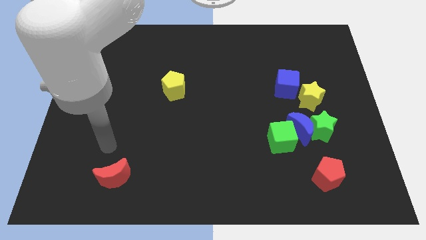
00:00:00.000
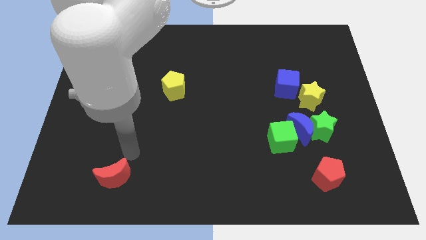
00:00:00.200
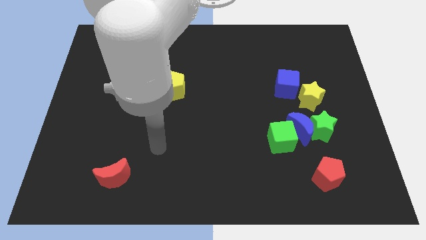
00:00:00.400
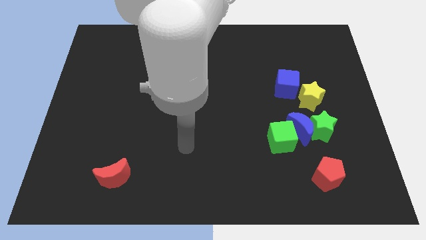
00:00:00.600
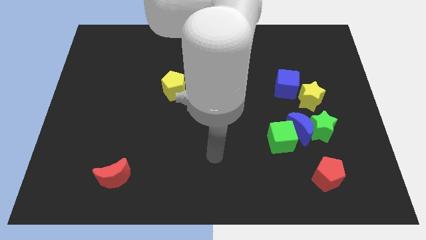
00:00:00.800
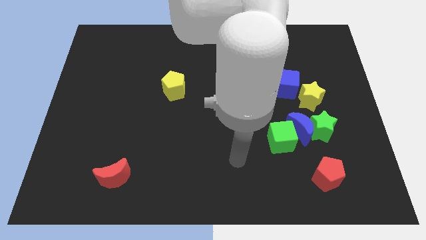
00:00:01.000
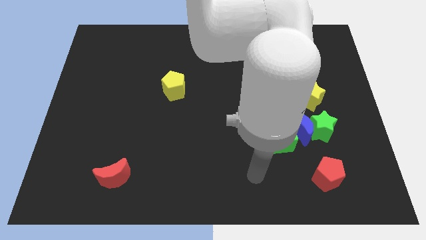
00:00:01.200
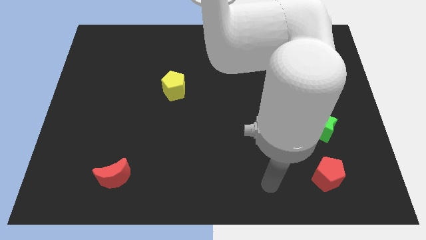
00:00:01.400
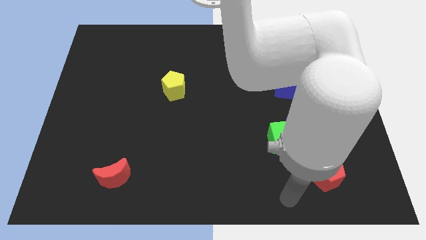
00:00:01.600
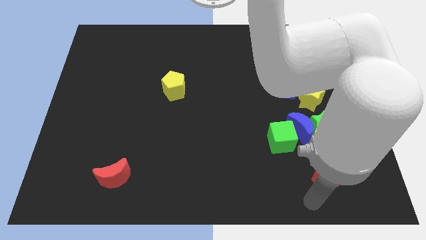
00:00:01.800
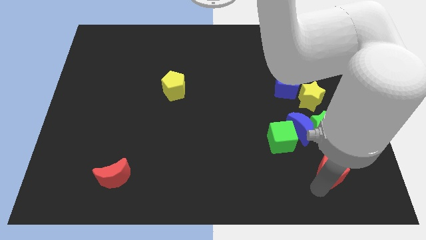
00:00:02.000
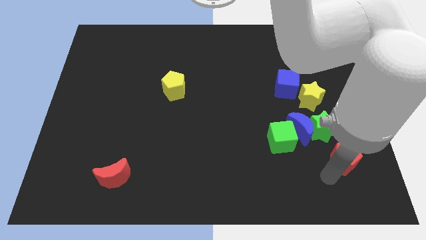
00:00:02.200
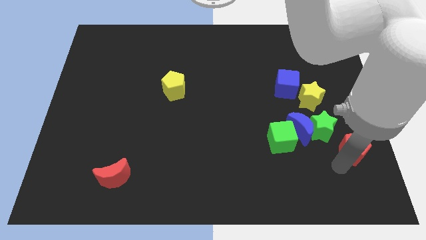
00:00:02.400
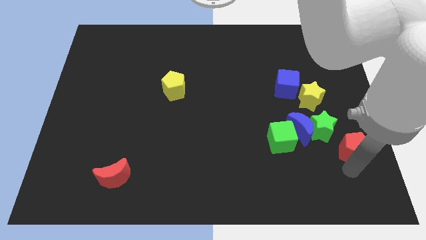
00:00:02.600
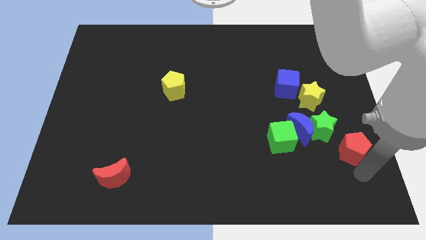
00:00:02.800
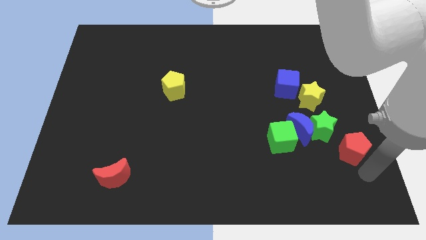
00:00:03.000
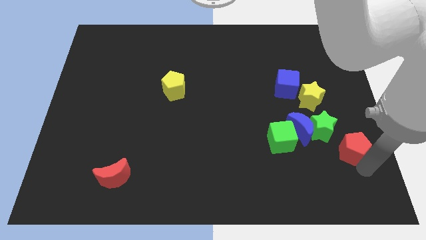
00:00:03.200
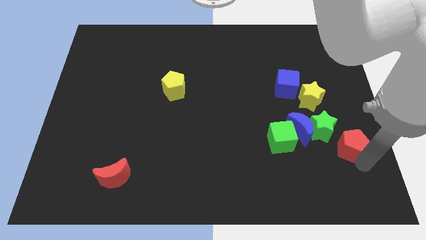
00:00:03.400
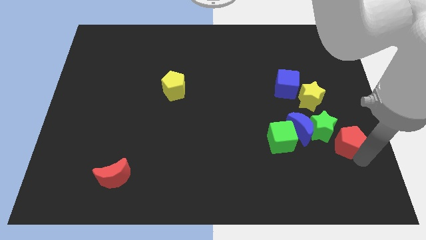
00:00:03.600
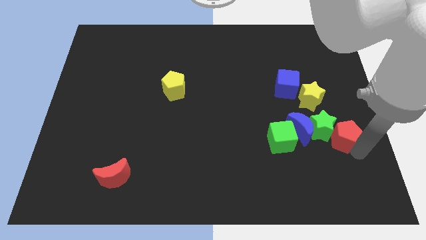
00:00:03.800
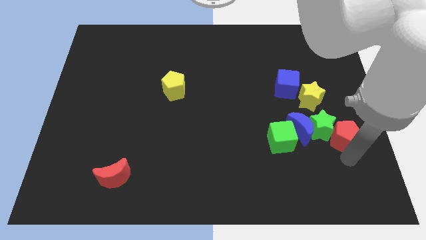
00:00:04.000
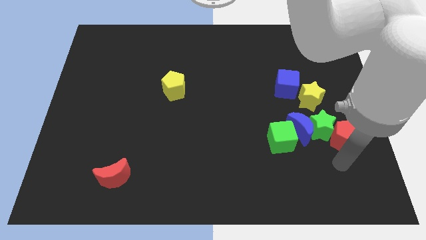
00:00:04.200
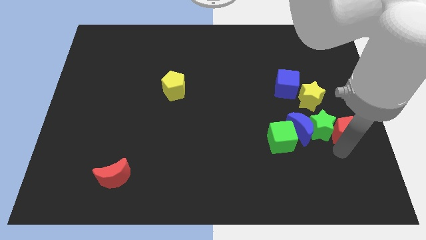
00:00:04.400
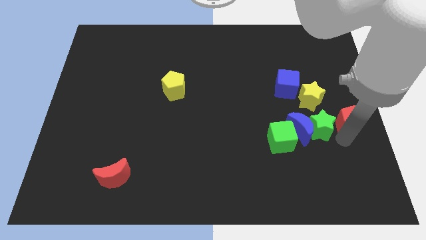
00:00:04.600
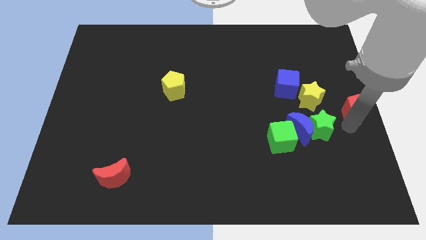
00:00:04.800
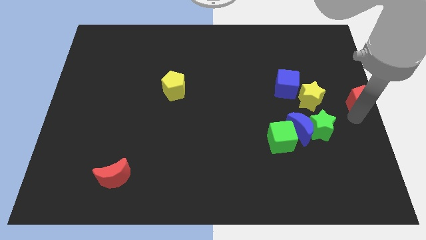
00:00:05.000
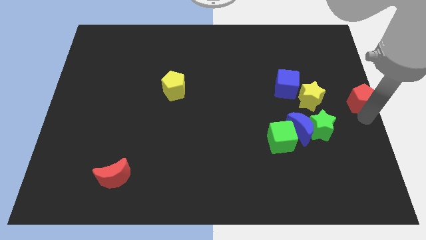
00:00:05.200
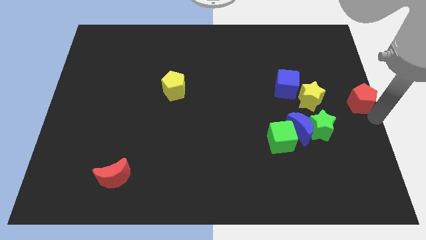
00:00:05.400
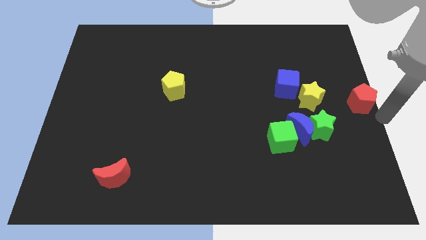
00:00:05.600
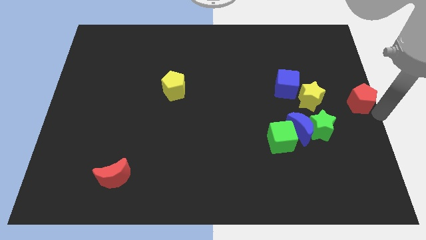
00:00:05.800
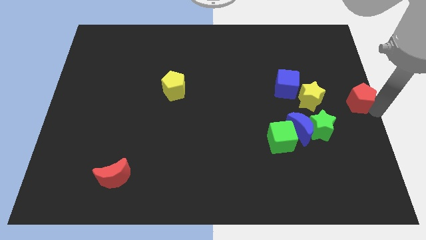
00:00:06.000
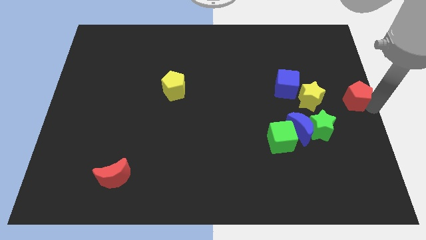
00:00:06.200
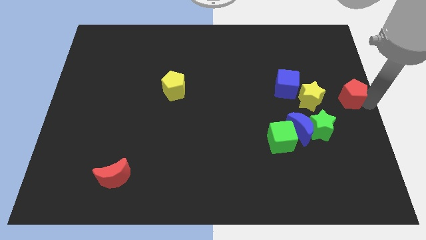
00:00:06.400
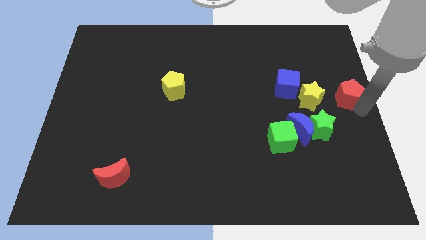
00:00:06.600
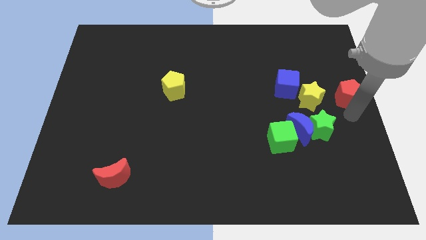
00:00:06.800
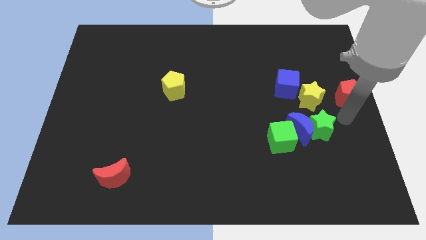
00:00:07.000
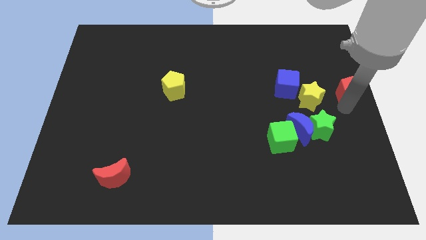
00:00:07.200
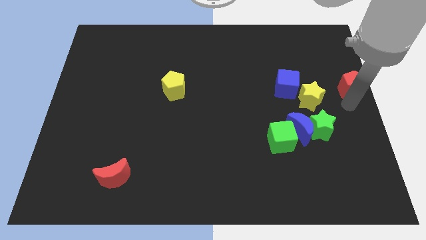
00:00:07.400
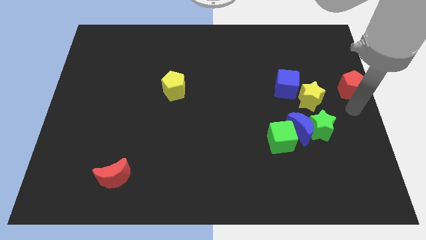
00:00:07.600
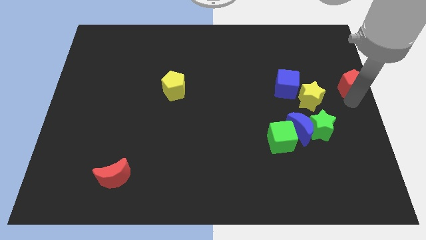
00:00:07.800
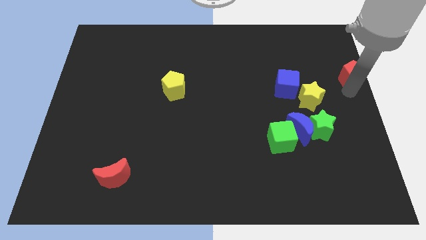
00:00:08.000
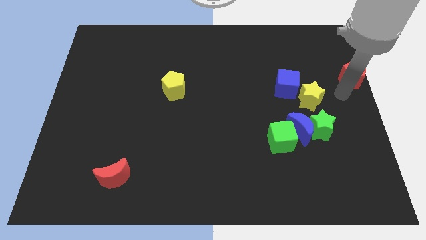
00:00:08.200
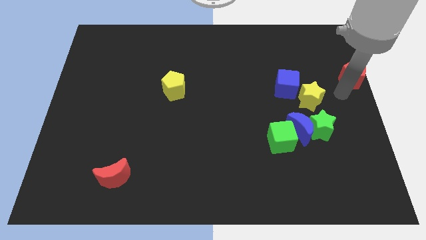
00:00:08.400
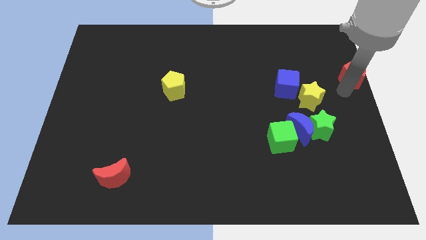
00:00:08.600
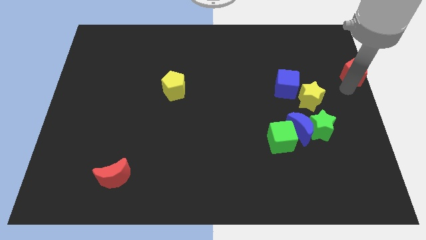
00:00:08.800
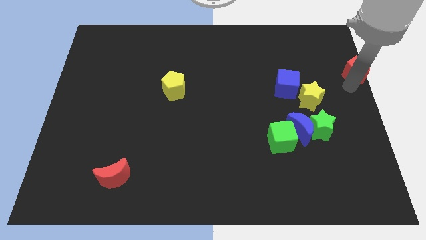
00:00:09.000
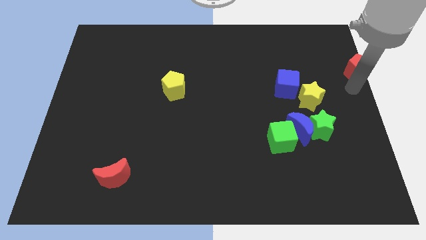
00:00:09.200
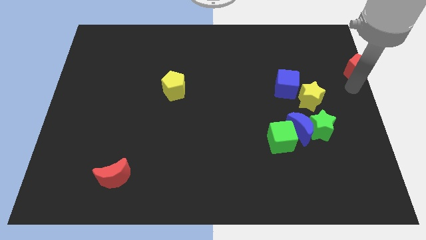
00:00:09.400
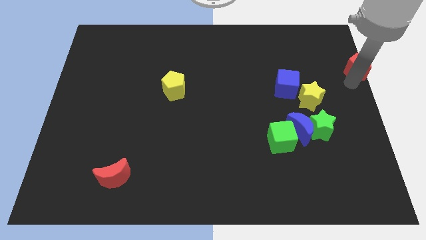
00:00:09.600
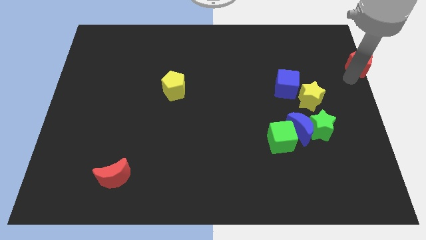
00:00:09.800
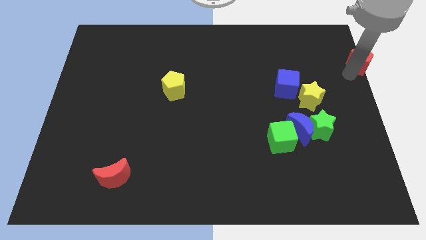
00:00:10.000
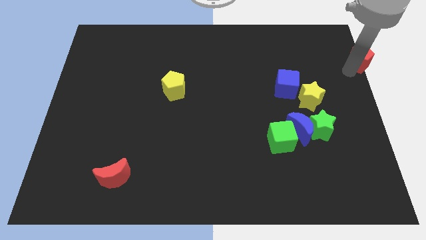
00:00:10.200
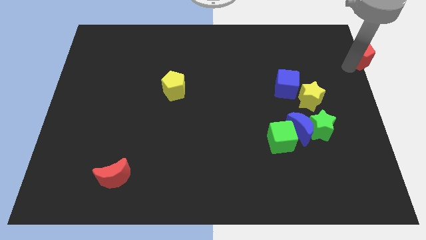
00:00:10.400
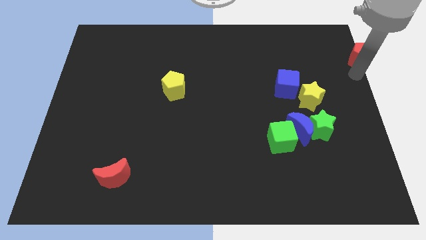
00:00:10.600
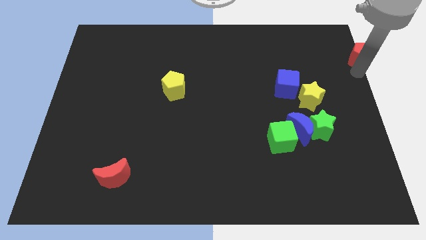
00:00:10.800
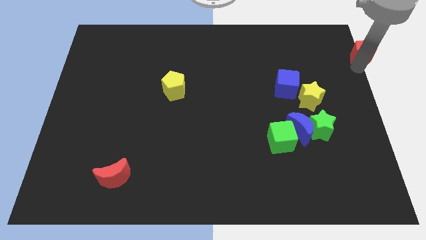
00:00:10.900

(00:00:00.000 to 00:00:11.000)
push the red pentagon to the top right
